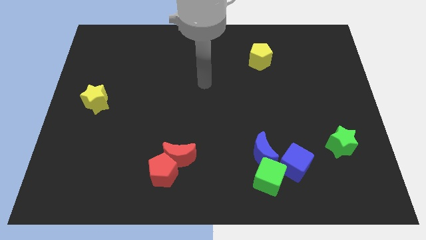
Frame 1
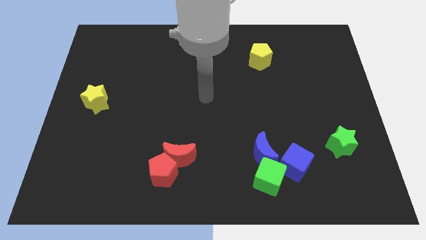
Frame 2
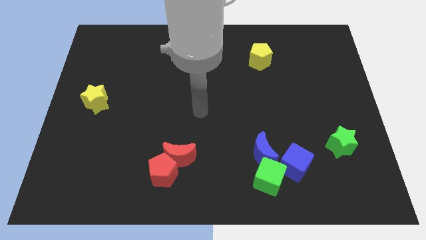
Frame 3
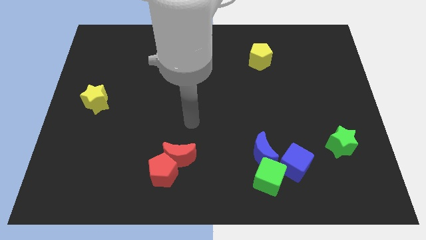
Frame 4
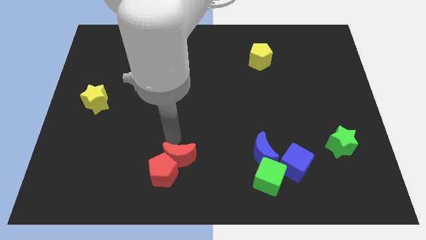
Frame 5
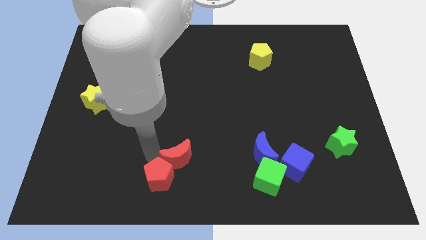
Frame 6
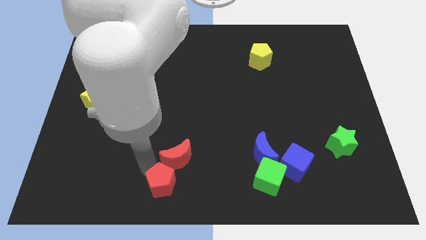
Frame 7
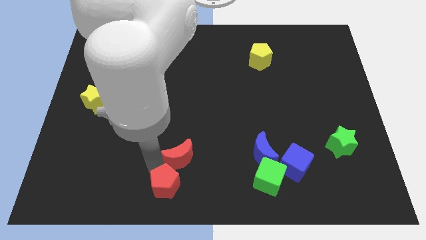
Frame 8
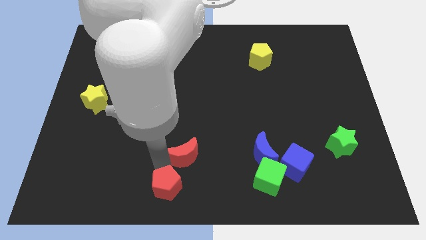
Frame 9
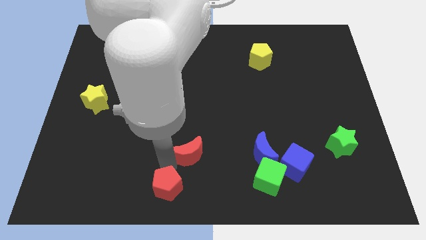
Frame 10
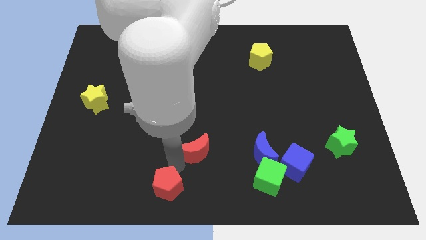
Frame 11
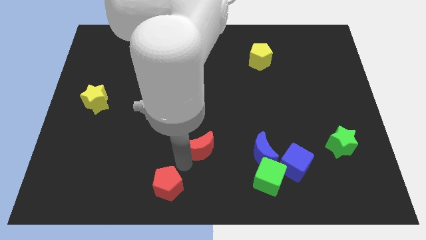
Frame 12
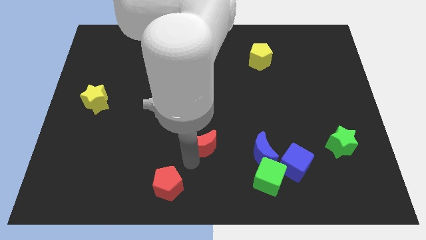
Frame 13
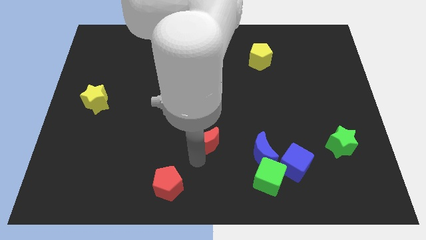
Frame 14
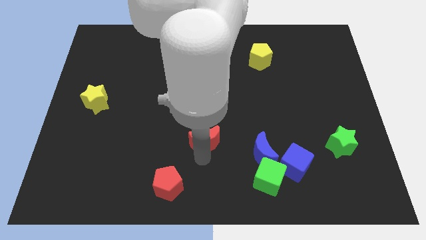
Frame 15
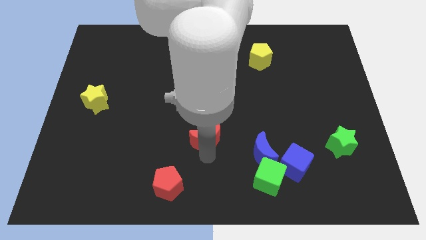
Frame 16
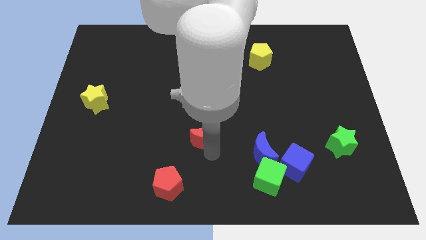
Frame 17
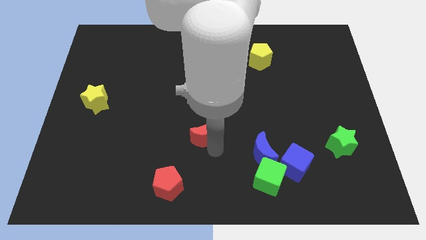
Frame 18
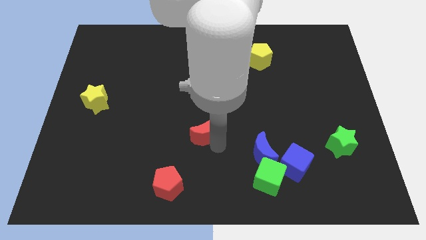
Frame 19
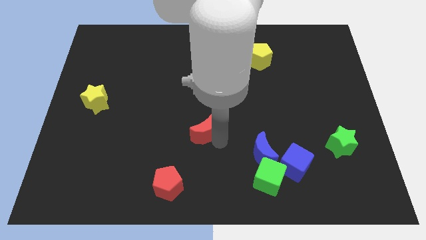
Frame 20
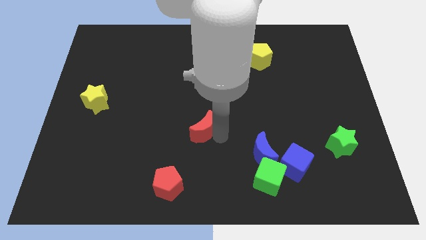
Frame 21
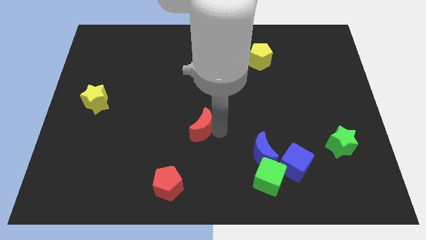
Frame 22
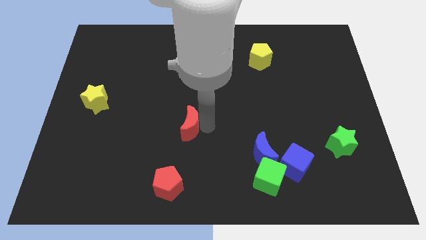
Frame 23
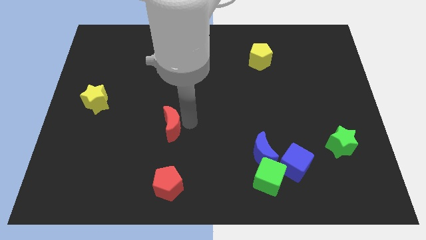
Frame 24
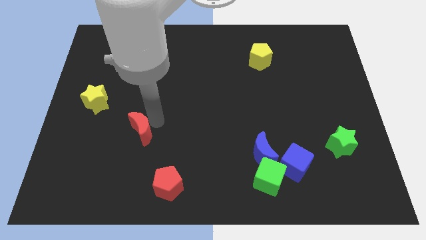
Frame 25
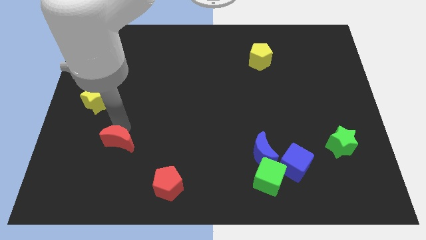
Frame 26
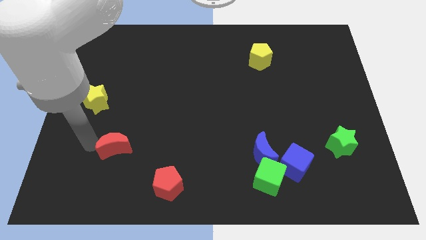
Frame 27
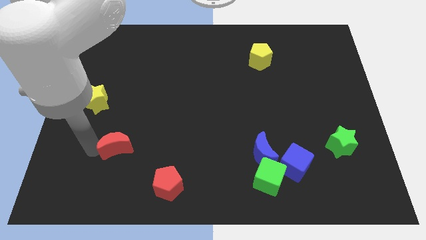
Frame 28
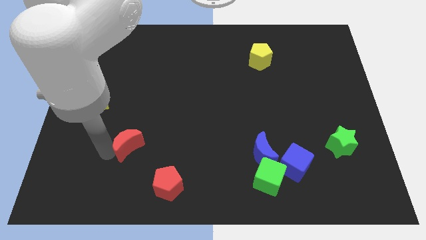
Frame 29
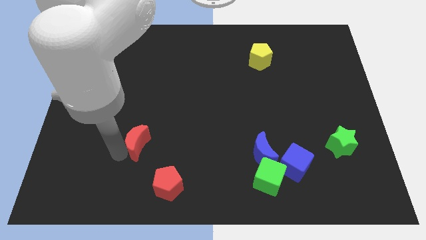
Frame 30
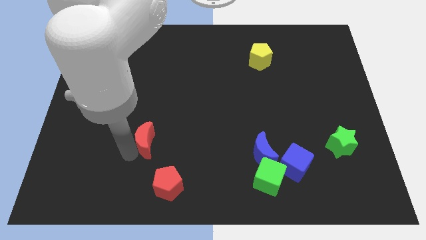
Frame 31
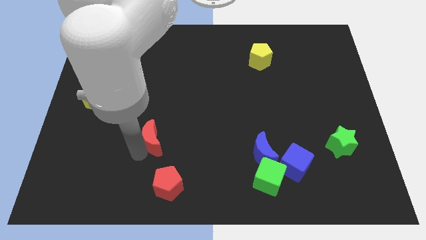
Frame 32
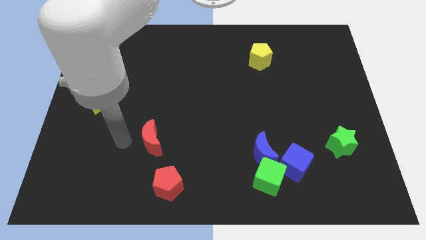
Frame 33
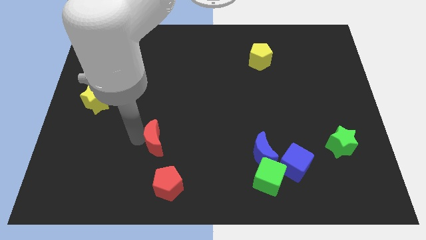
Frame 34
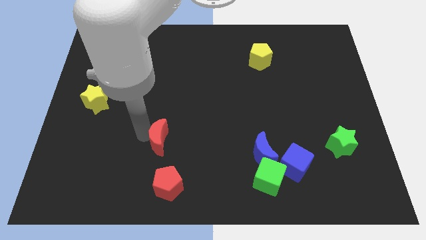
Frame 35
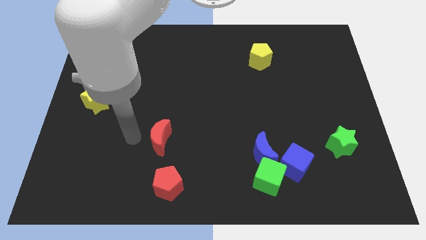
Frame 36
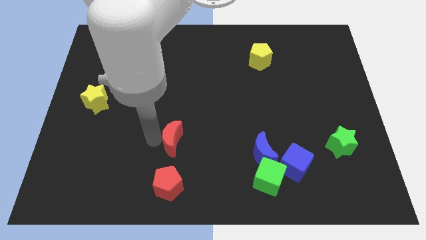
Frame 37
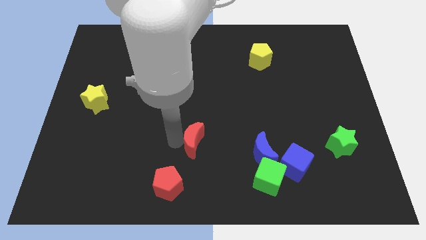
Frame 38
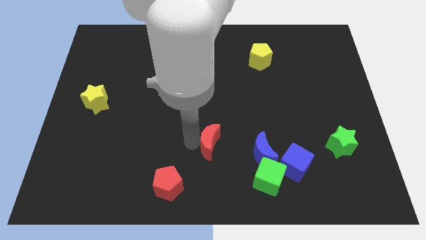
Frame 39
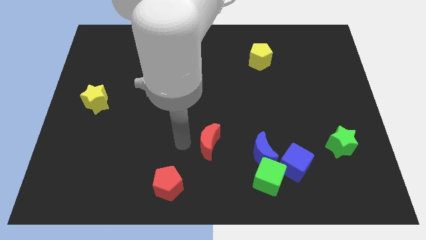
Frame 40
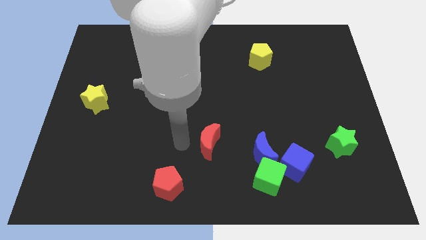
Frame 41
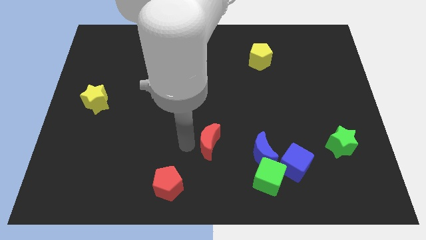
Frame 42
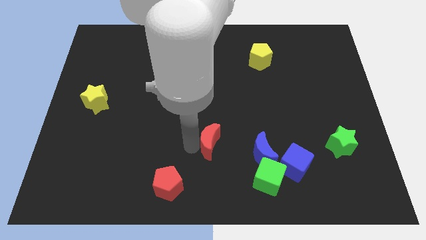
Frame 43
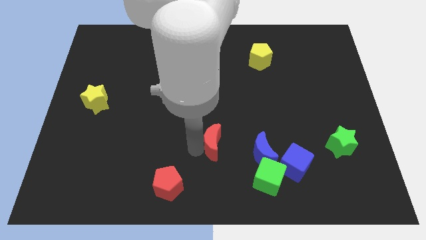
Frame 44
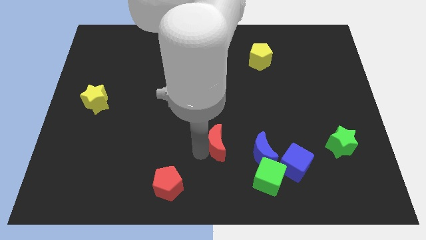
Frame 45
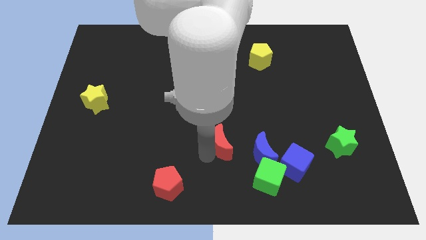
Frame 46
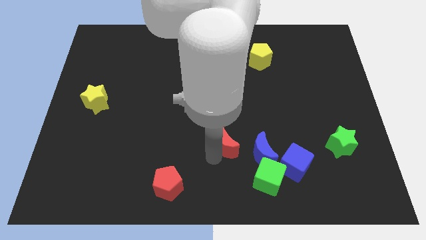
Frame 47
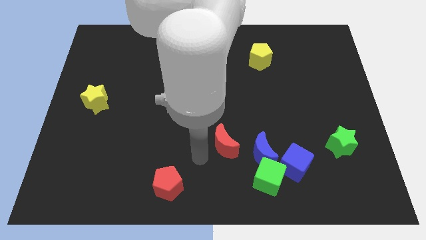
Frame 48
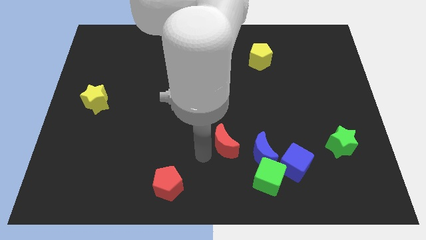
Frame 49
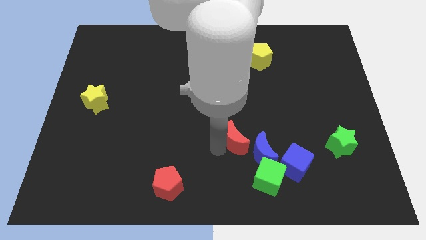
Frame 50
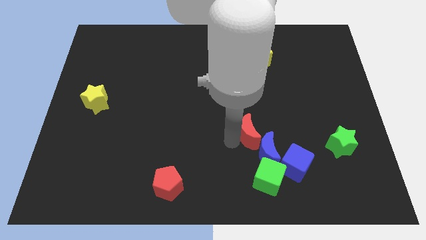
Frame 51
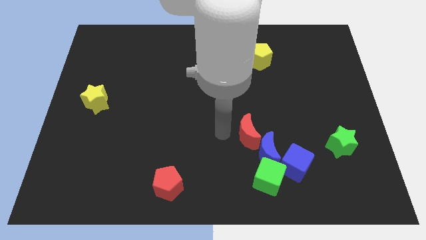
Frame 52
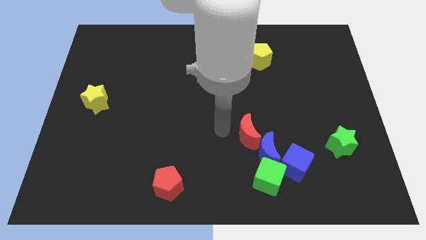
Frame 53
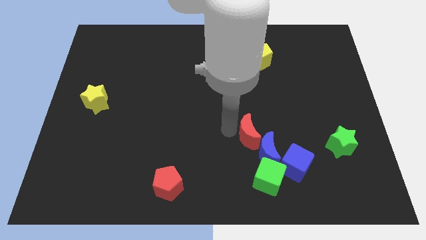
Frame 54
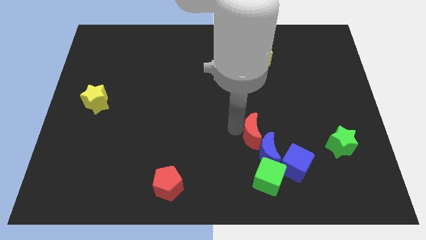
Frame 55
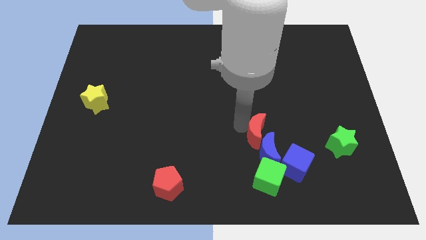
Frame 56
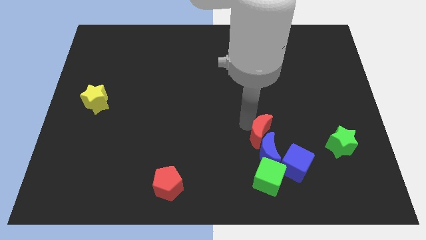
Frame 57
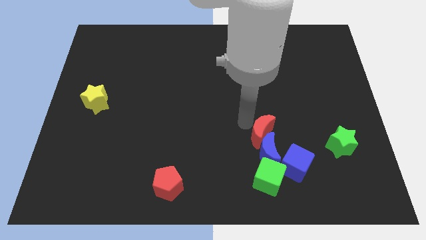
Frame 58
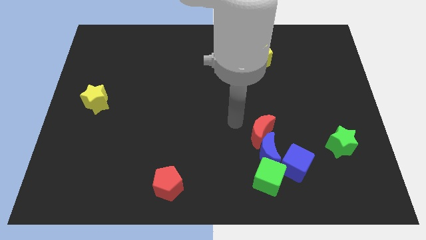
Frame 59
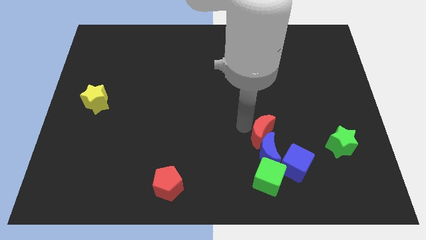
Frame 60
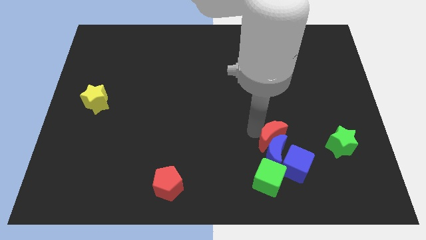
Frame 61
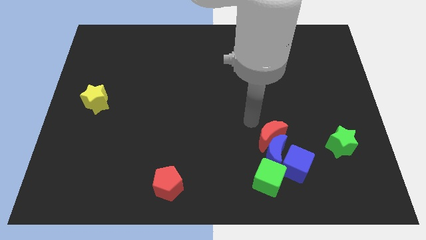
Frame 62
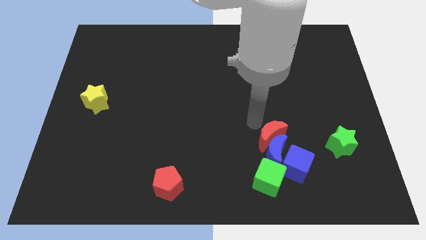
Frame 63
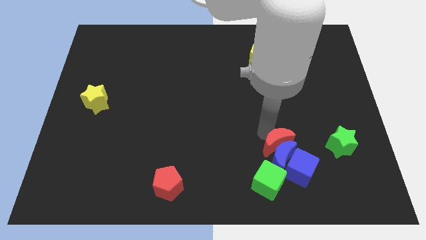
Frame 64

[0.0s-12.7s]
put the red moon to the top right of the green cube

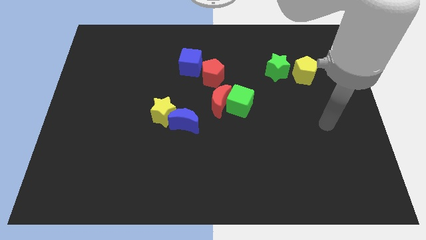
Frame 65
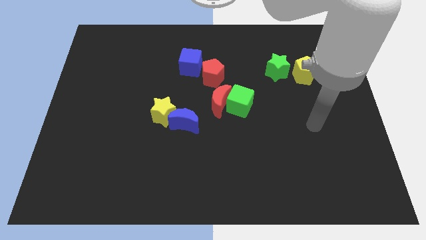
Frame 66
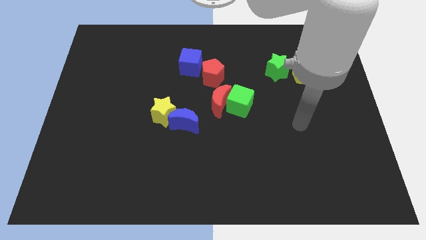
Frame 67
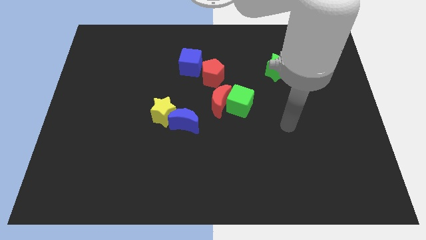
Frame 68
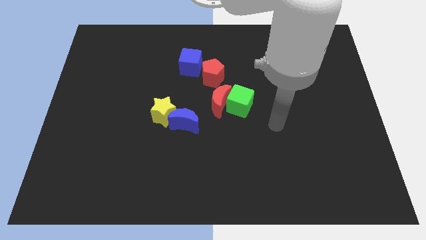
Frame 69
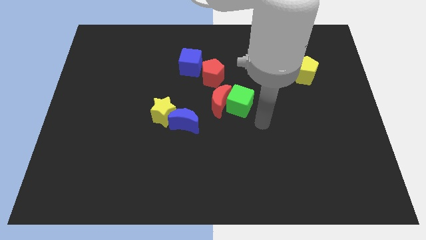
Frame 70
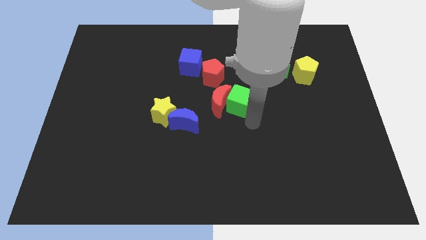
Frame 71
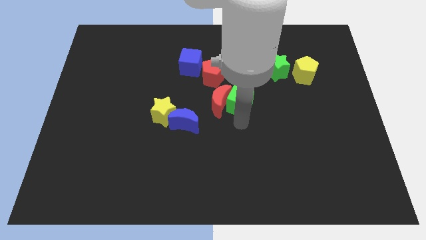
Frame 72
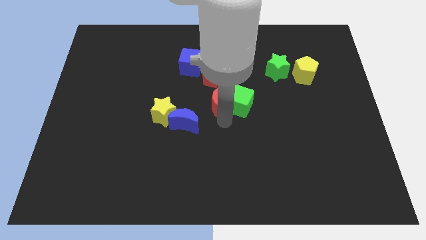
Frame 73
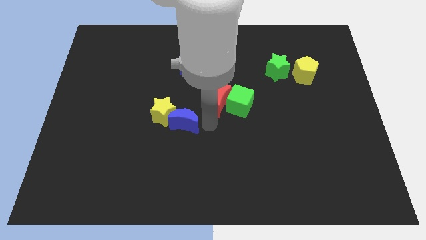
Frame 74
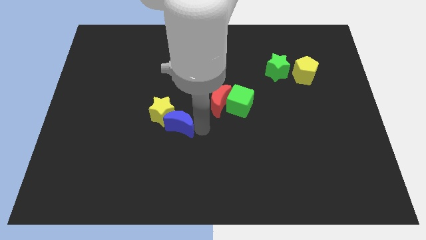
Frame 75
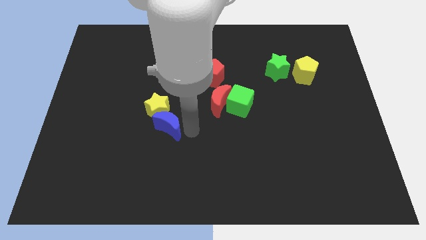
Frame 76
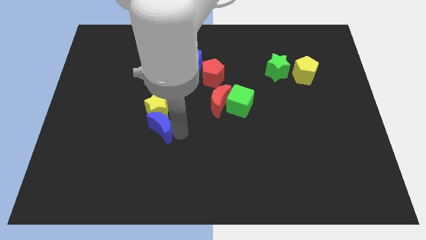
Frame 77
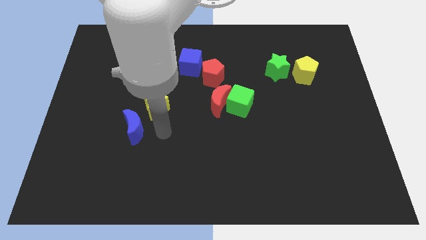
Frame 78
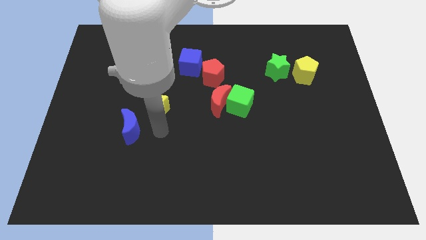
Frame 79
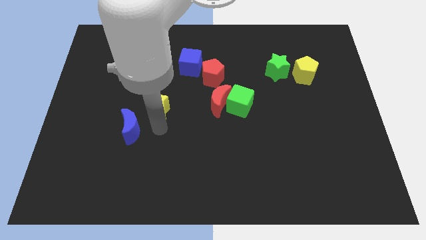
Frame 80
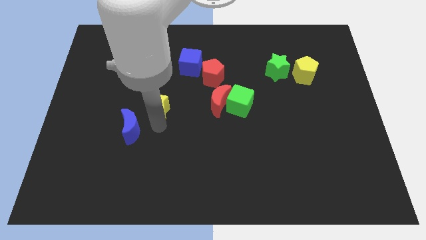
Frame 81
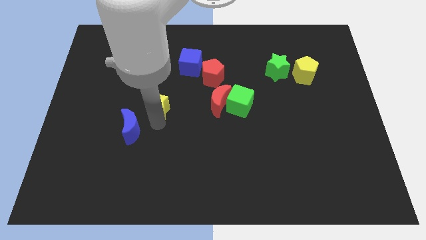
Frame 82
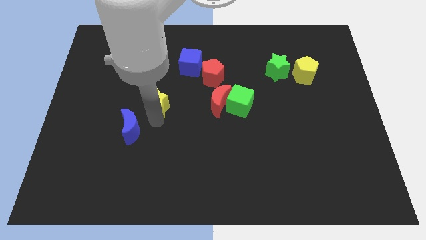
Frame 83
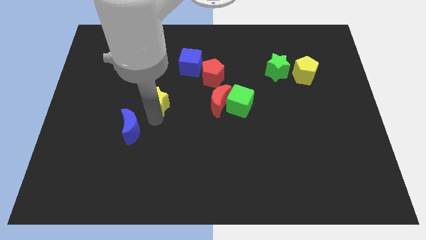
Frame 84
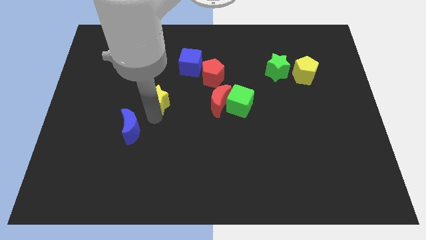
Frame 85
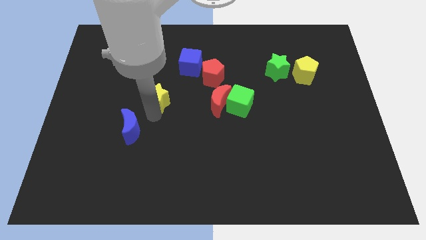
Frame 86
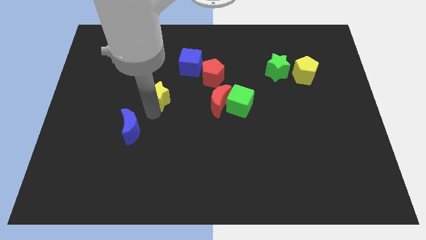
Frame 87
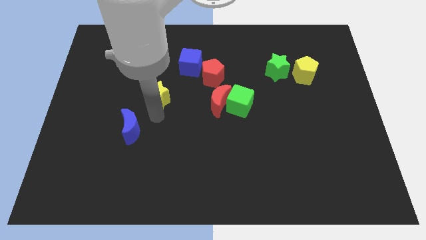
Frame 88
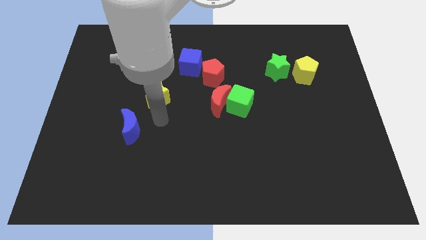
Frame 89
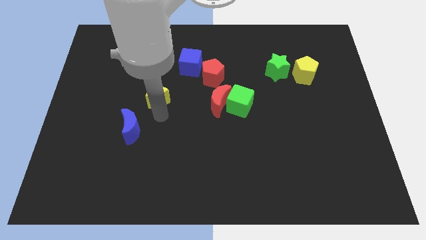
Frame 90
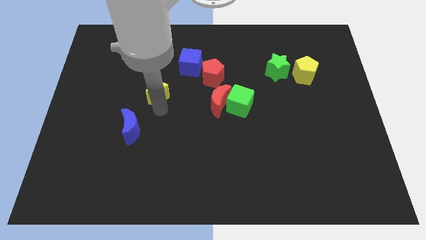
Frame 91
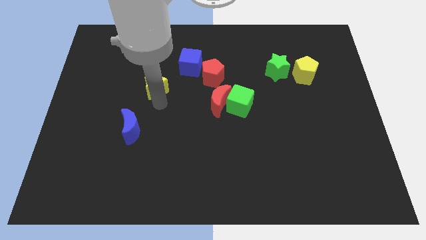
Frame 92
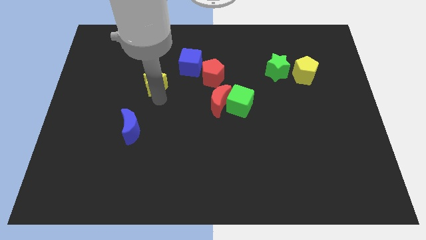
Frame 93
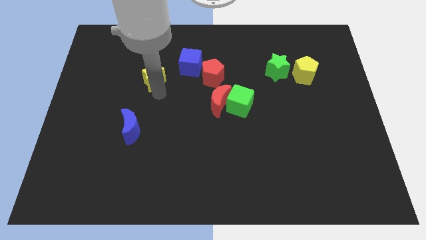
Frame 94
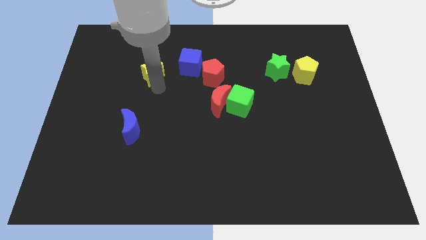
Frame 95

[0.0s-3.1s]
slide the yellow star to the left side of the blue cube
